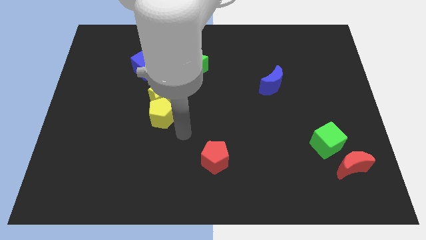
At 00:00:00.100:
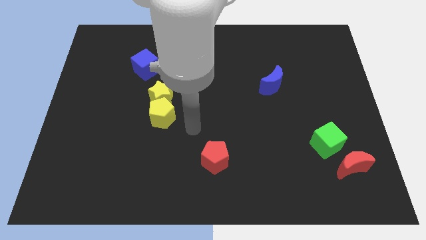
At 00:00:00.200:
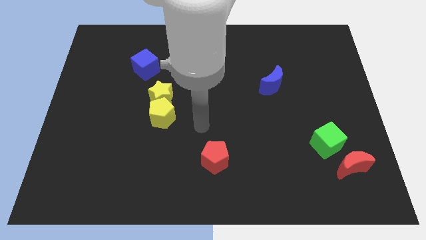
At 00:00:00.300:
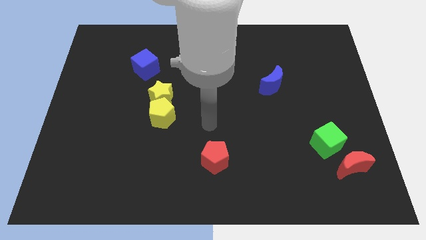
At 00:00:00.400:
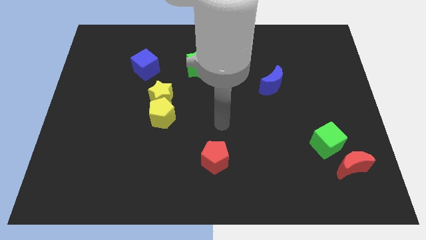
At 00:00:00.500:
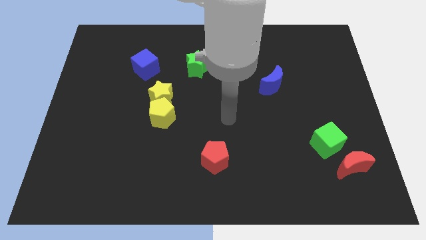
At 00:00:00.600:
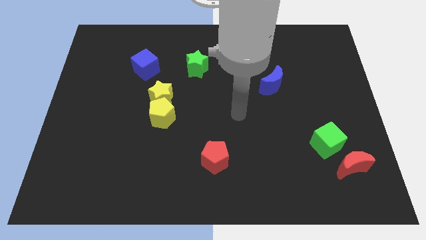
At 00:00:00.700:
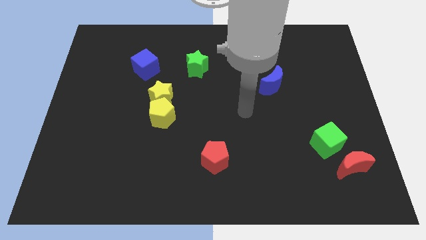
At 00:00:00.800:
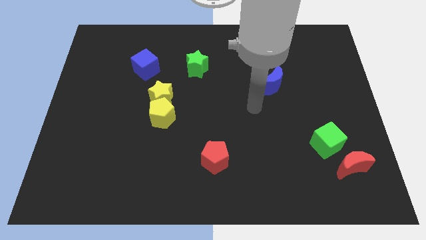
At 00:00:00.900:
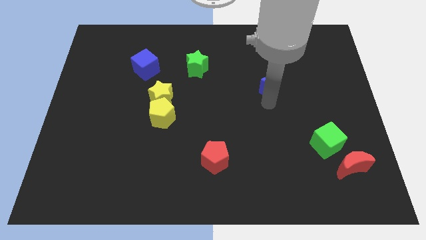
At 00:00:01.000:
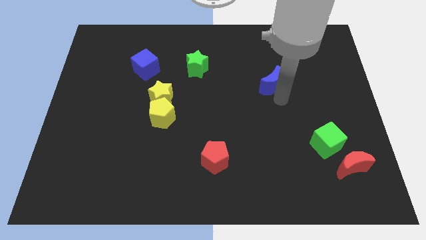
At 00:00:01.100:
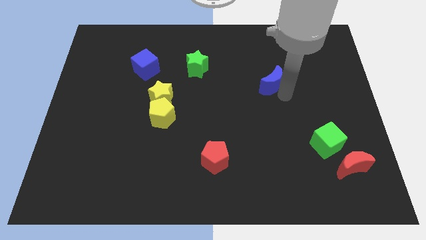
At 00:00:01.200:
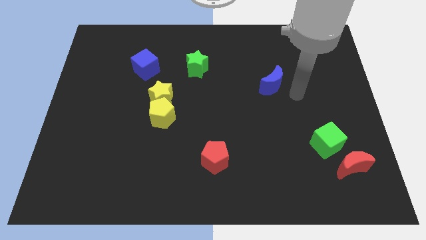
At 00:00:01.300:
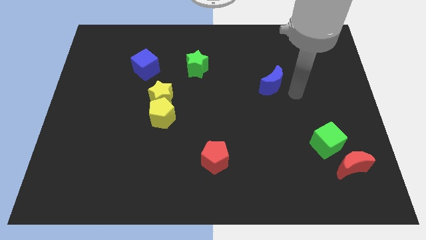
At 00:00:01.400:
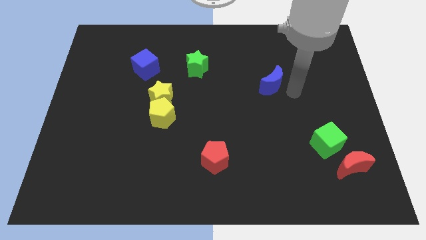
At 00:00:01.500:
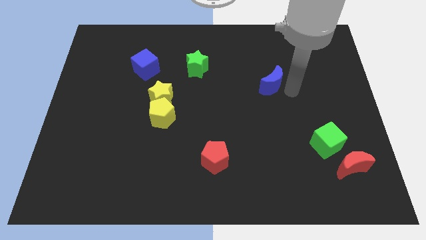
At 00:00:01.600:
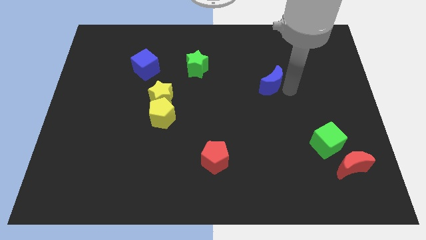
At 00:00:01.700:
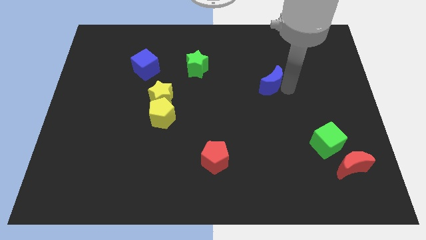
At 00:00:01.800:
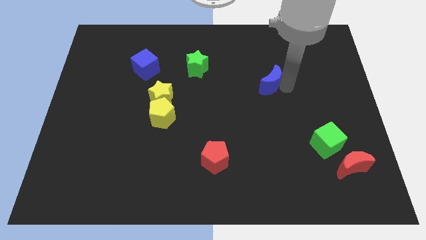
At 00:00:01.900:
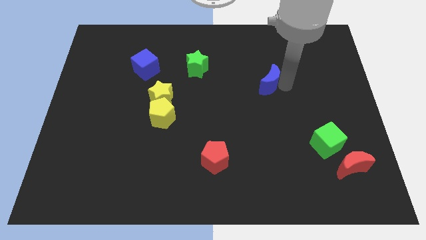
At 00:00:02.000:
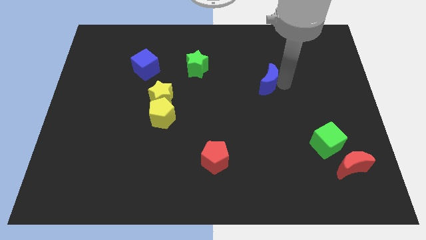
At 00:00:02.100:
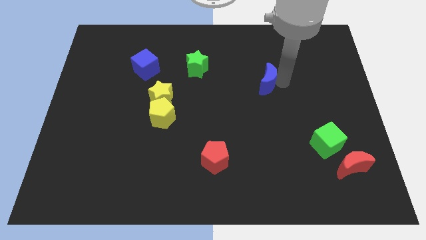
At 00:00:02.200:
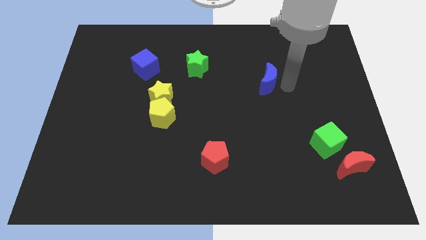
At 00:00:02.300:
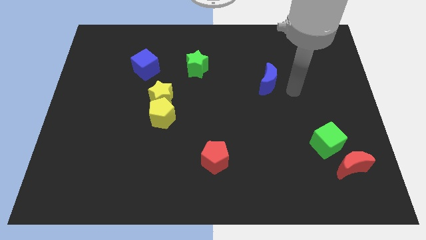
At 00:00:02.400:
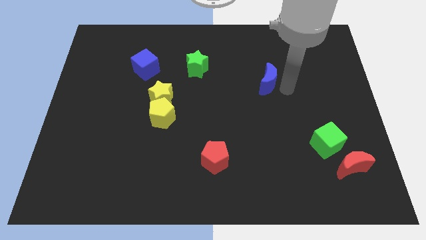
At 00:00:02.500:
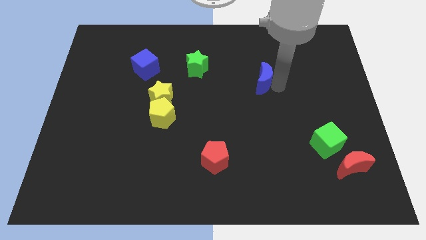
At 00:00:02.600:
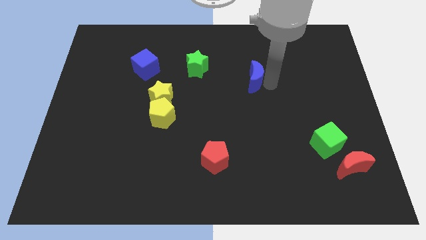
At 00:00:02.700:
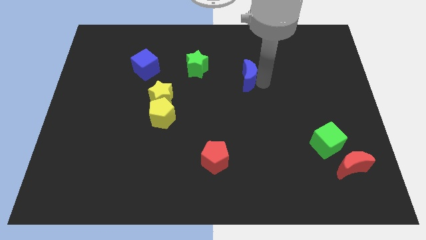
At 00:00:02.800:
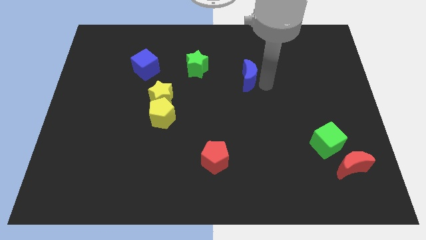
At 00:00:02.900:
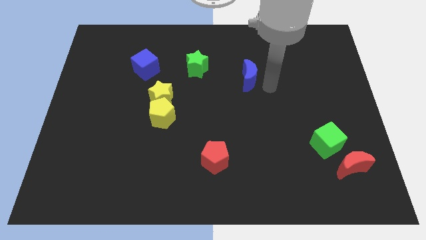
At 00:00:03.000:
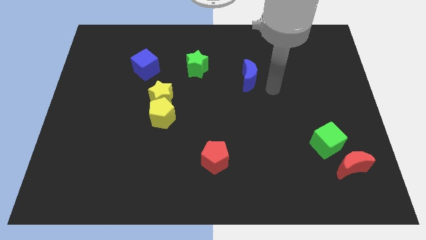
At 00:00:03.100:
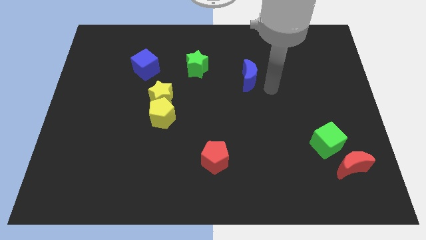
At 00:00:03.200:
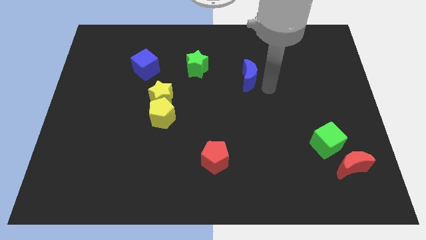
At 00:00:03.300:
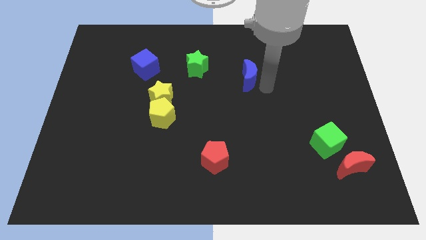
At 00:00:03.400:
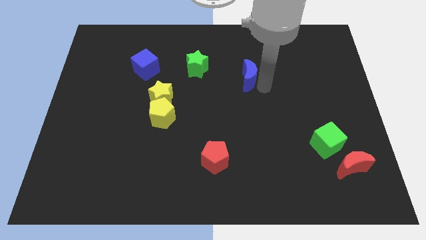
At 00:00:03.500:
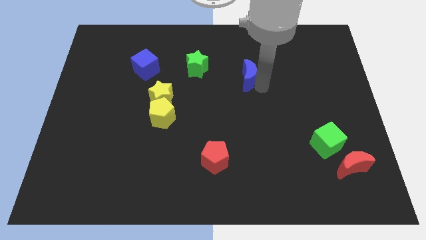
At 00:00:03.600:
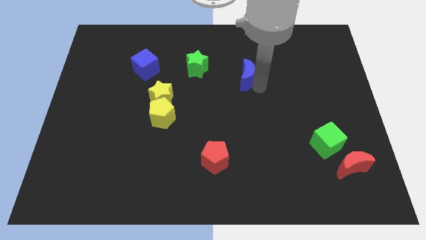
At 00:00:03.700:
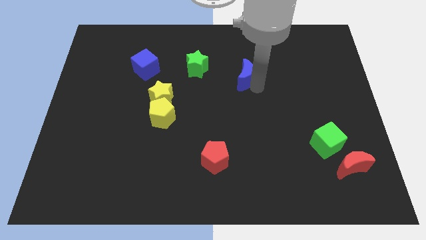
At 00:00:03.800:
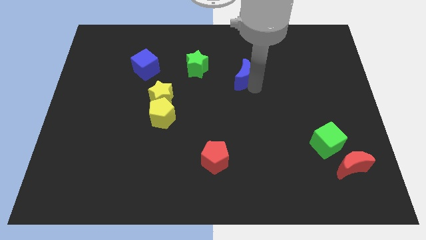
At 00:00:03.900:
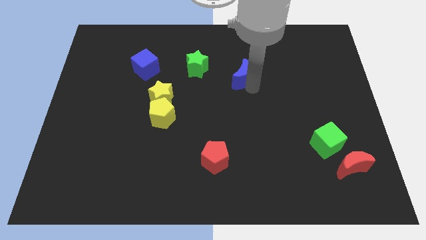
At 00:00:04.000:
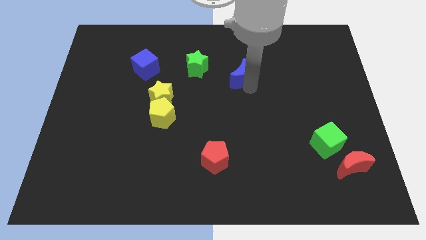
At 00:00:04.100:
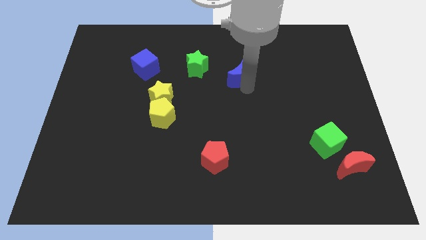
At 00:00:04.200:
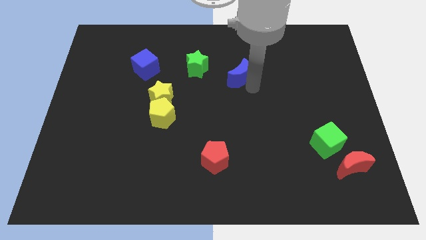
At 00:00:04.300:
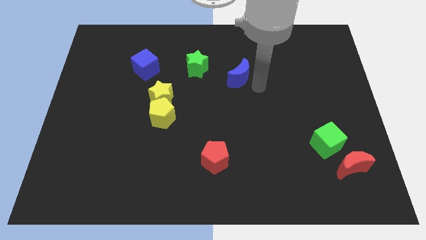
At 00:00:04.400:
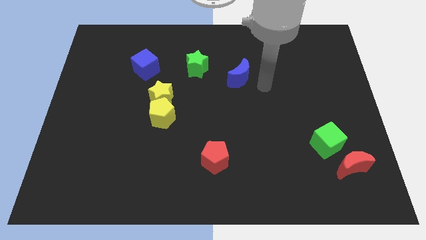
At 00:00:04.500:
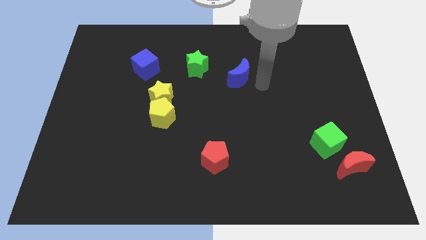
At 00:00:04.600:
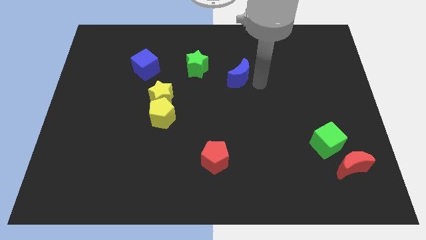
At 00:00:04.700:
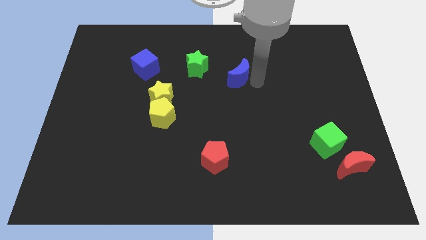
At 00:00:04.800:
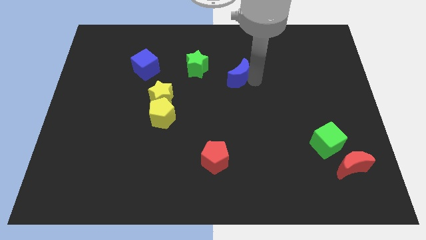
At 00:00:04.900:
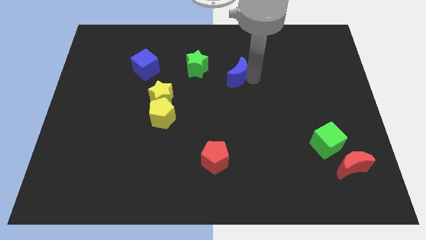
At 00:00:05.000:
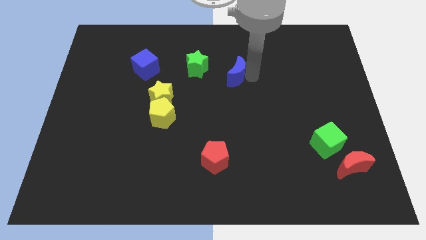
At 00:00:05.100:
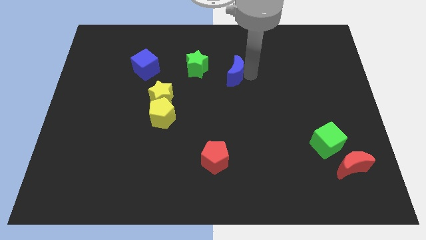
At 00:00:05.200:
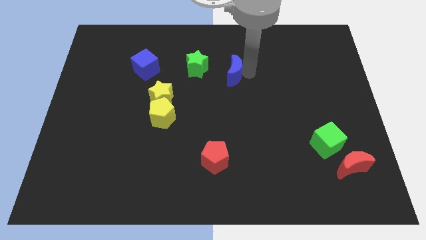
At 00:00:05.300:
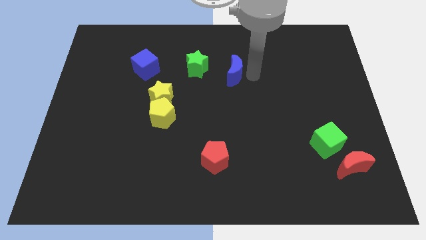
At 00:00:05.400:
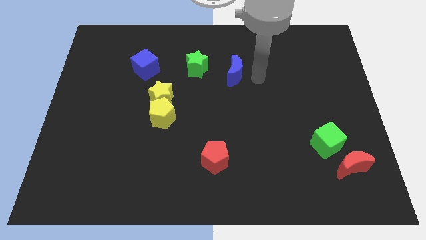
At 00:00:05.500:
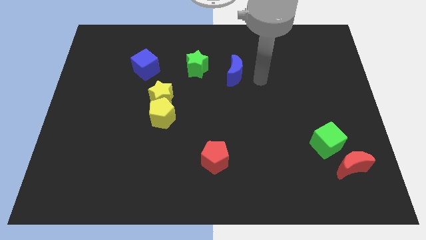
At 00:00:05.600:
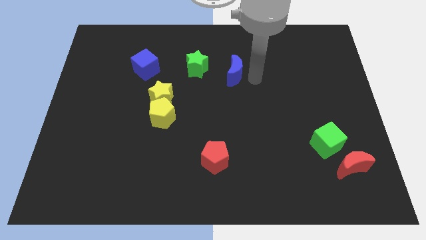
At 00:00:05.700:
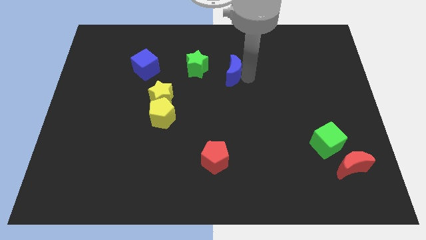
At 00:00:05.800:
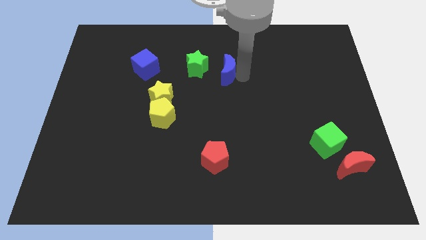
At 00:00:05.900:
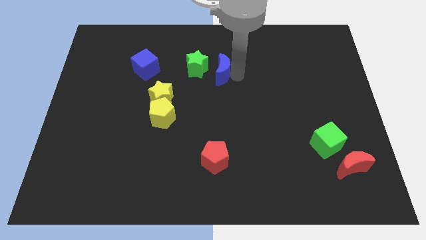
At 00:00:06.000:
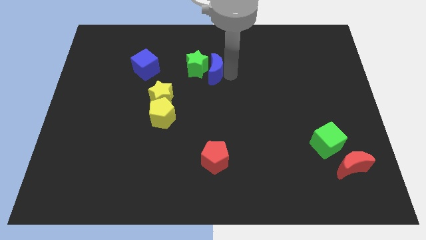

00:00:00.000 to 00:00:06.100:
put the blue moon next to the green star

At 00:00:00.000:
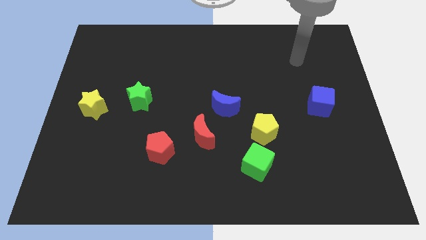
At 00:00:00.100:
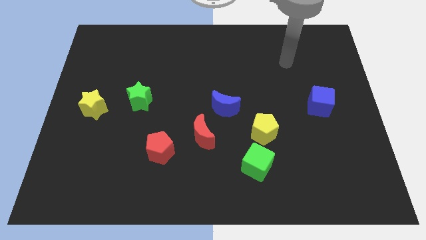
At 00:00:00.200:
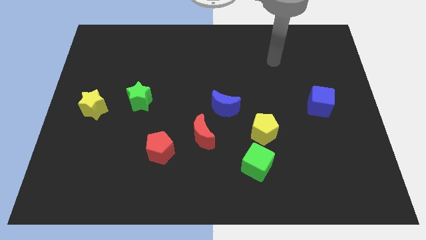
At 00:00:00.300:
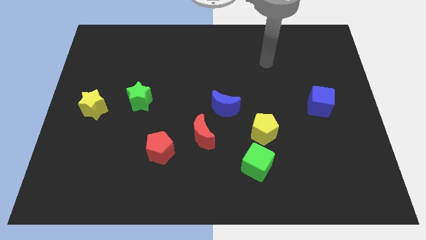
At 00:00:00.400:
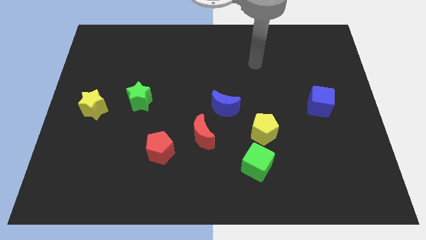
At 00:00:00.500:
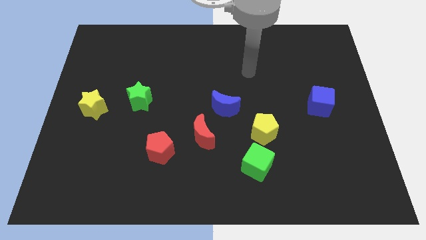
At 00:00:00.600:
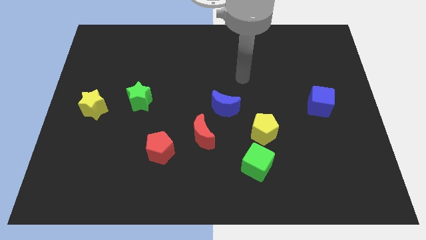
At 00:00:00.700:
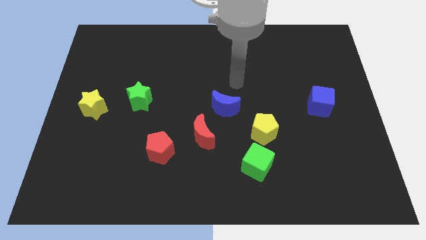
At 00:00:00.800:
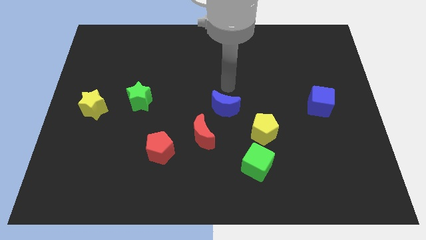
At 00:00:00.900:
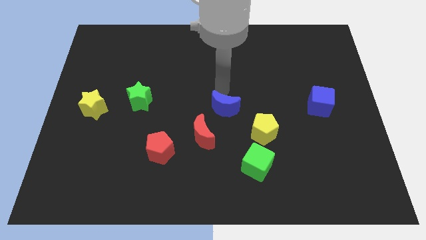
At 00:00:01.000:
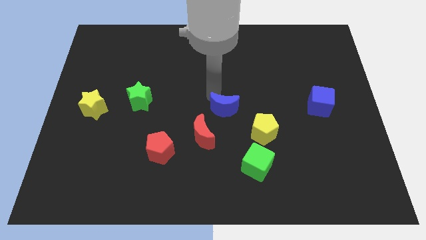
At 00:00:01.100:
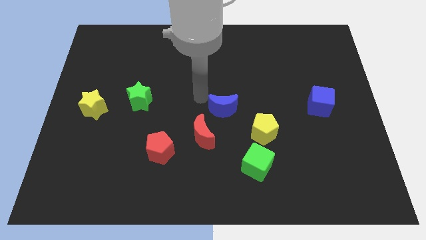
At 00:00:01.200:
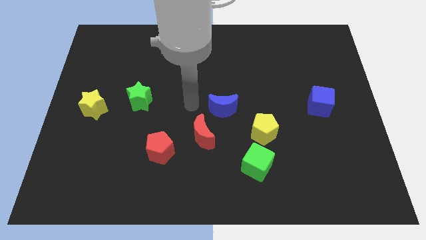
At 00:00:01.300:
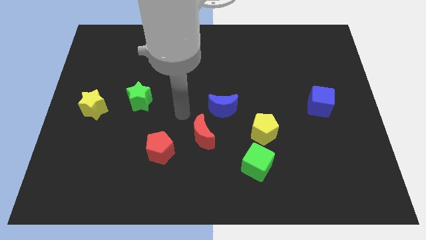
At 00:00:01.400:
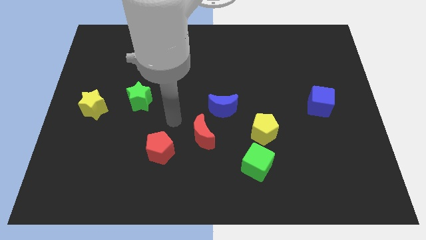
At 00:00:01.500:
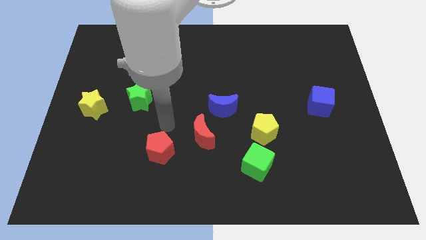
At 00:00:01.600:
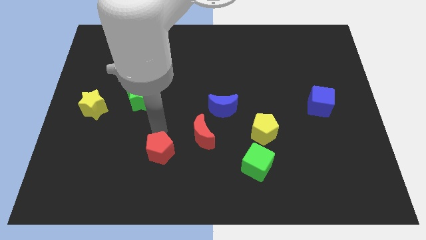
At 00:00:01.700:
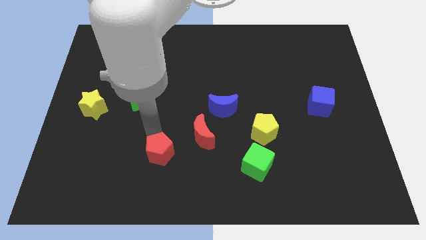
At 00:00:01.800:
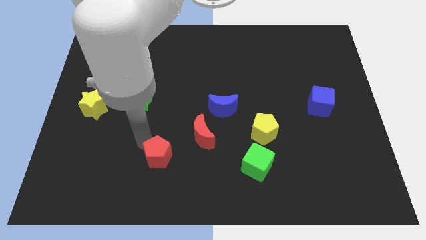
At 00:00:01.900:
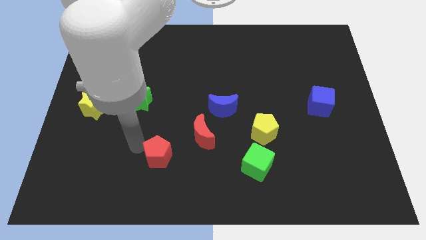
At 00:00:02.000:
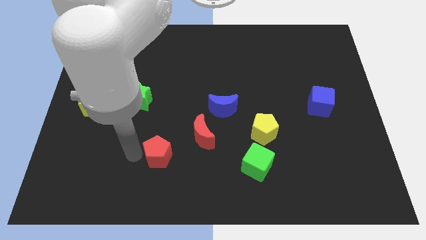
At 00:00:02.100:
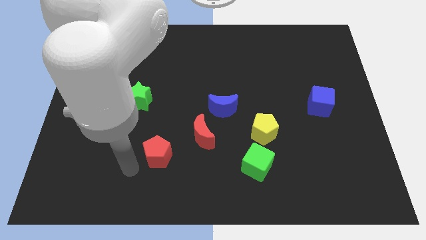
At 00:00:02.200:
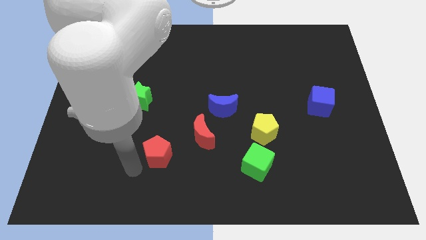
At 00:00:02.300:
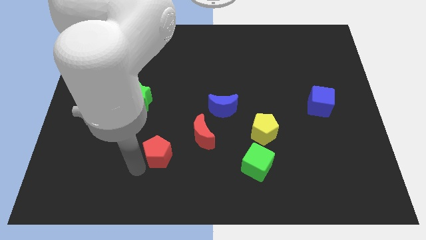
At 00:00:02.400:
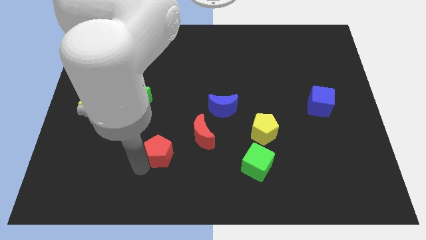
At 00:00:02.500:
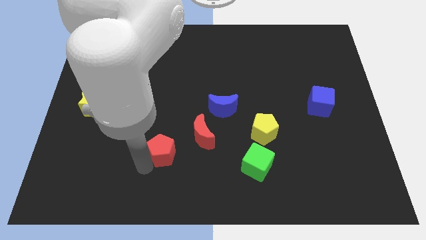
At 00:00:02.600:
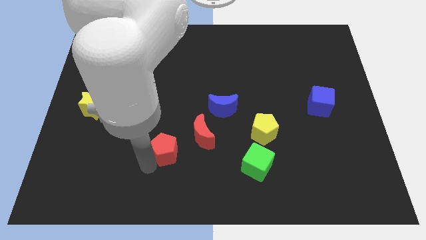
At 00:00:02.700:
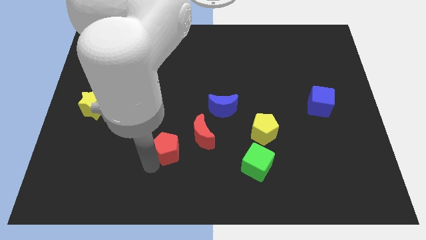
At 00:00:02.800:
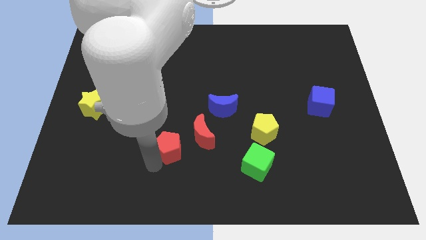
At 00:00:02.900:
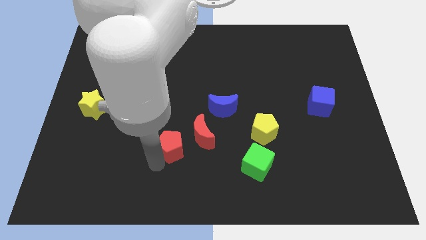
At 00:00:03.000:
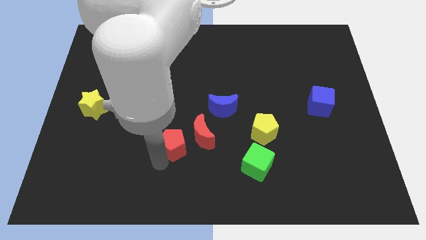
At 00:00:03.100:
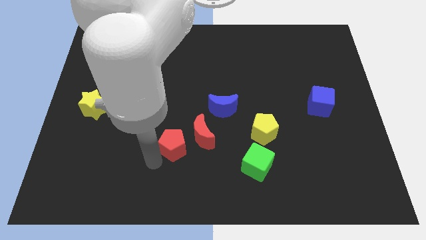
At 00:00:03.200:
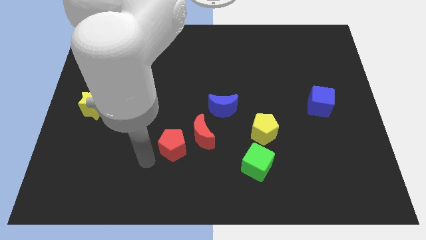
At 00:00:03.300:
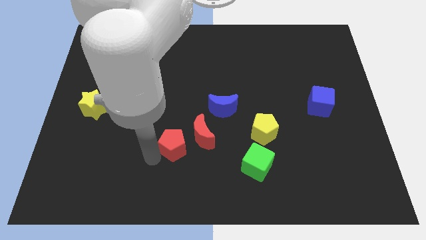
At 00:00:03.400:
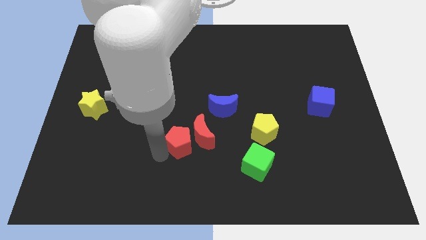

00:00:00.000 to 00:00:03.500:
slide the red pentagon to the red moon
